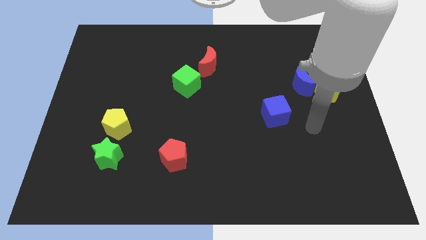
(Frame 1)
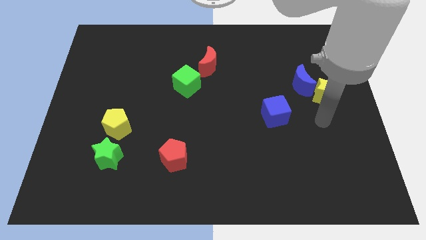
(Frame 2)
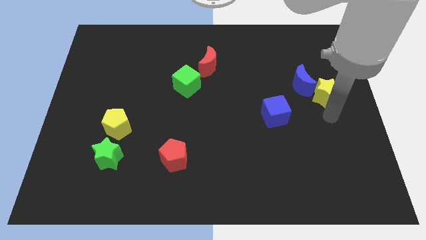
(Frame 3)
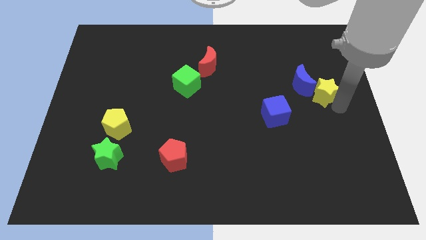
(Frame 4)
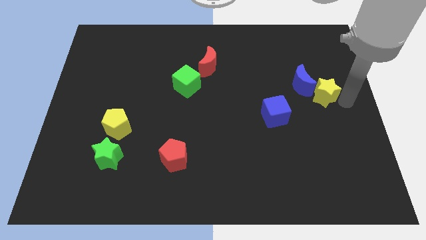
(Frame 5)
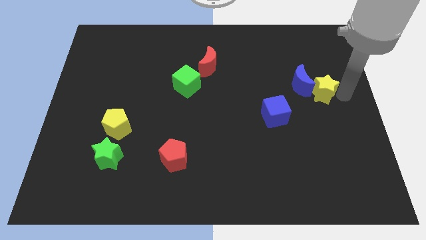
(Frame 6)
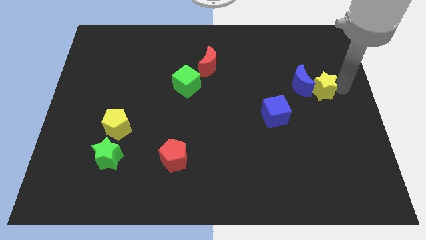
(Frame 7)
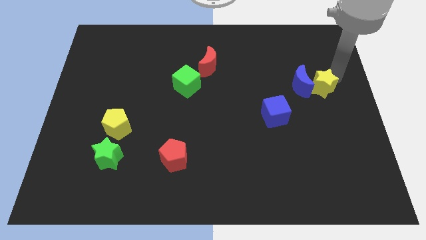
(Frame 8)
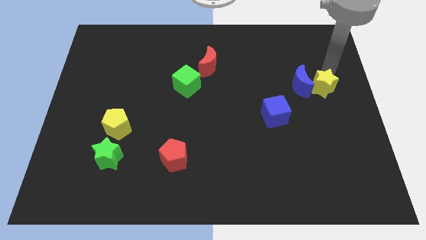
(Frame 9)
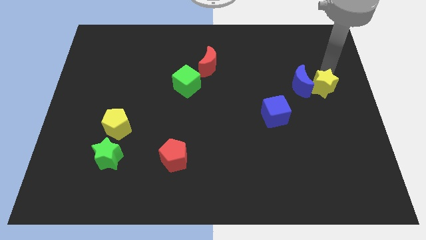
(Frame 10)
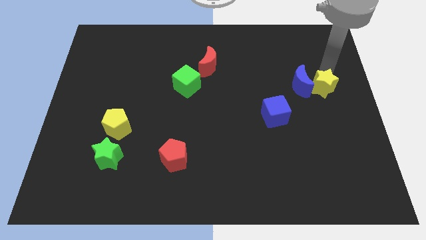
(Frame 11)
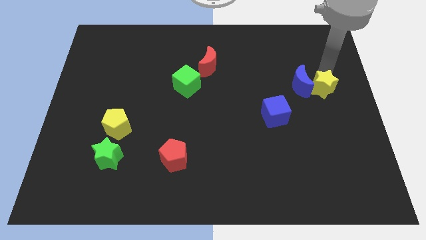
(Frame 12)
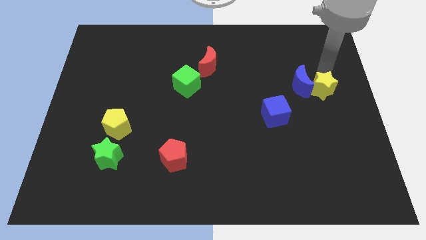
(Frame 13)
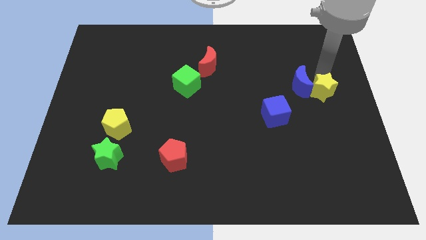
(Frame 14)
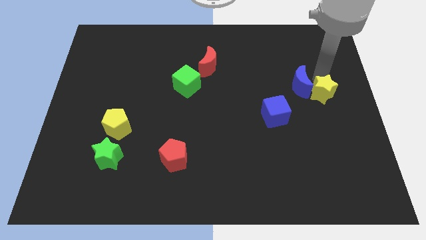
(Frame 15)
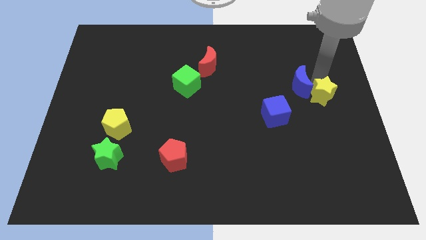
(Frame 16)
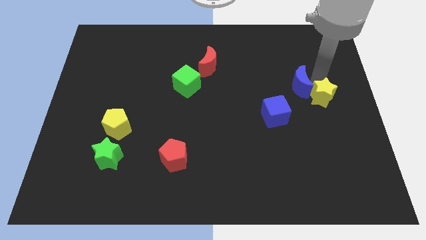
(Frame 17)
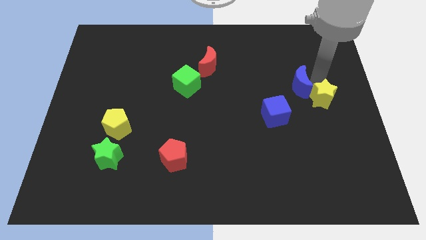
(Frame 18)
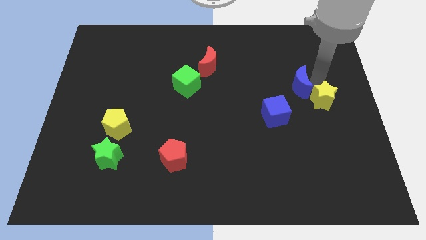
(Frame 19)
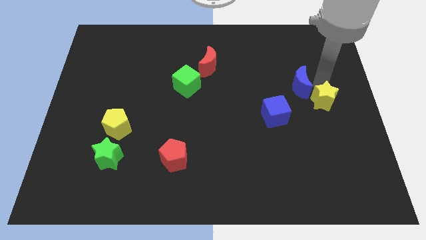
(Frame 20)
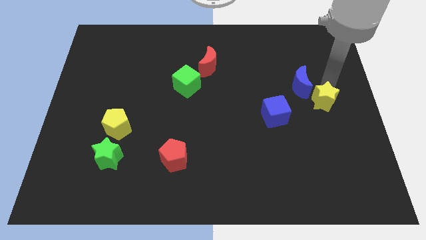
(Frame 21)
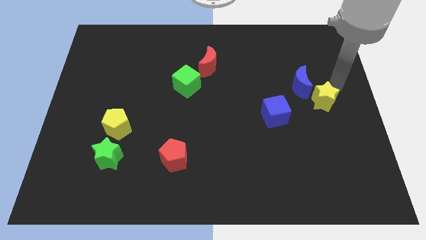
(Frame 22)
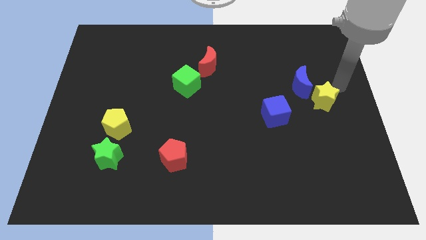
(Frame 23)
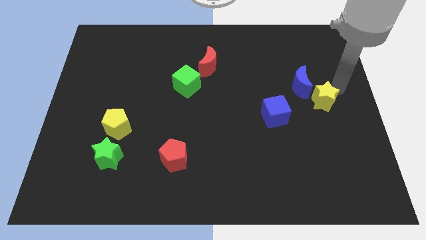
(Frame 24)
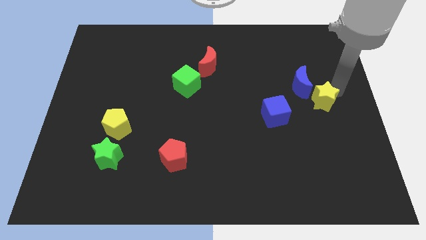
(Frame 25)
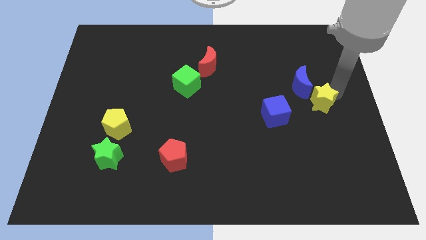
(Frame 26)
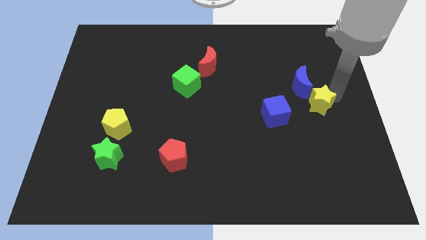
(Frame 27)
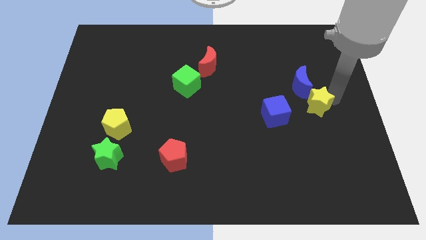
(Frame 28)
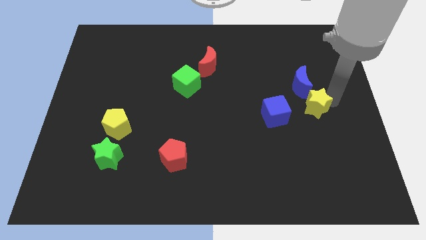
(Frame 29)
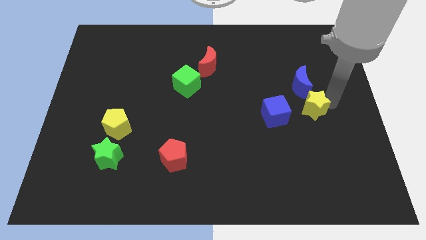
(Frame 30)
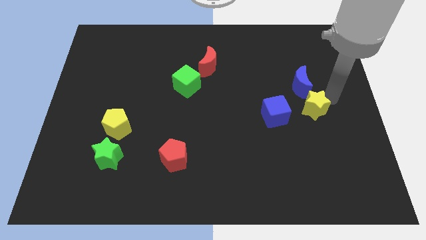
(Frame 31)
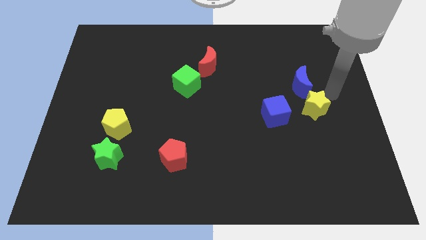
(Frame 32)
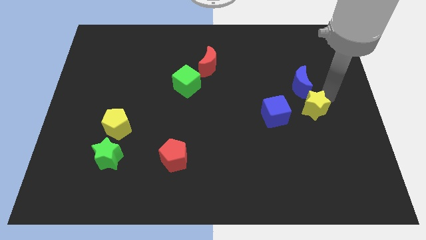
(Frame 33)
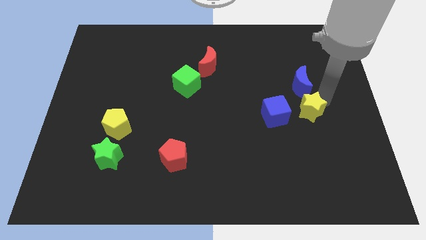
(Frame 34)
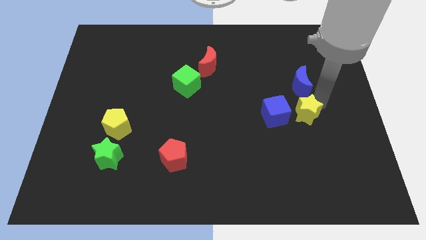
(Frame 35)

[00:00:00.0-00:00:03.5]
push the yellow star slightly downwards and to the left

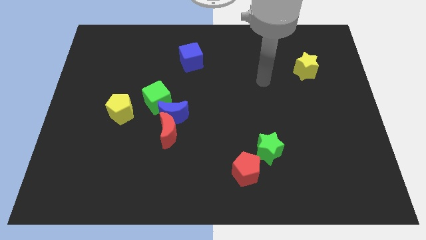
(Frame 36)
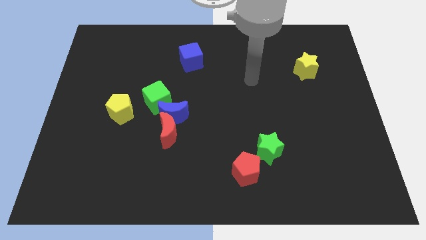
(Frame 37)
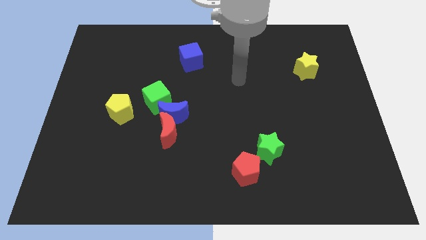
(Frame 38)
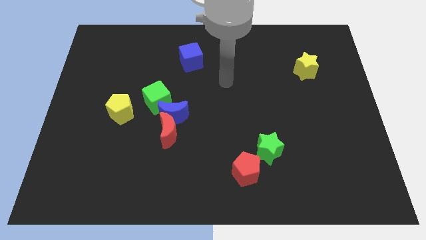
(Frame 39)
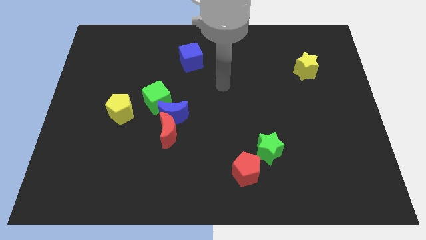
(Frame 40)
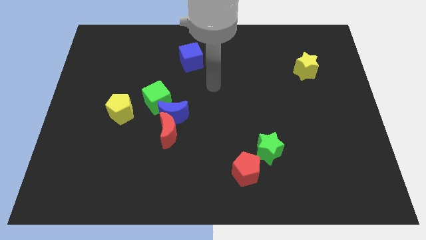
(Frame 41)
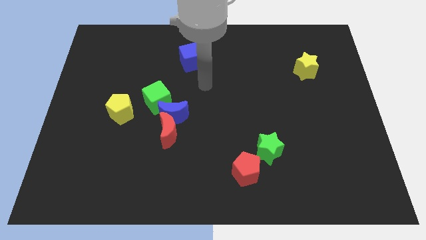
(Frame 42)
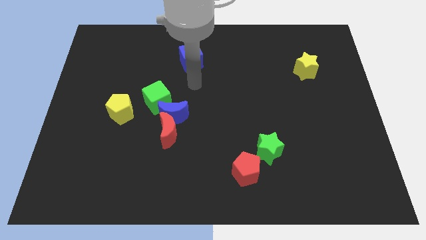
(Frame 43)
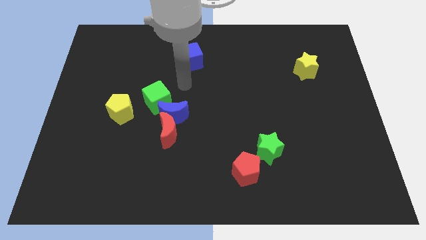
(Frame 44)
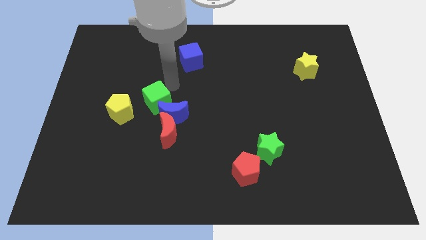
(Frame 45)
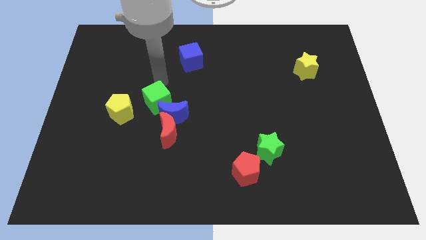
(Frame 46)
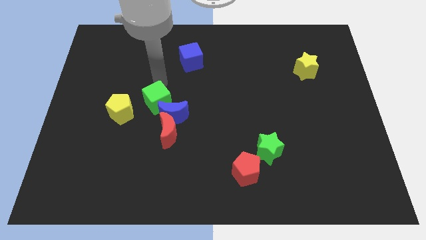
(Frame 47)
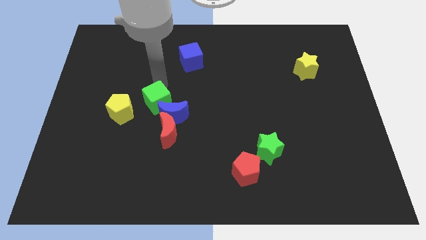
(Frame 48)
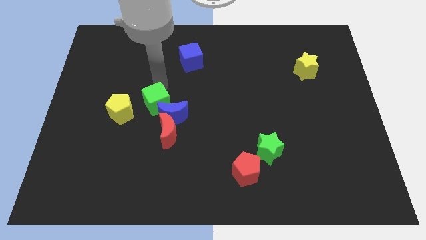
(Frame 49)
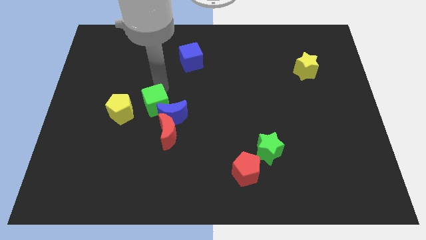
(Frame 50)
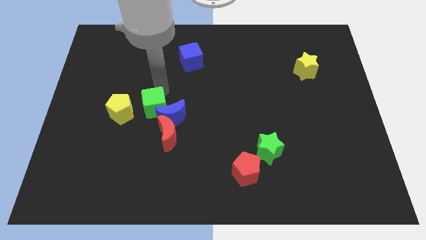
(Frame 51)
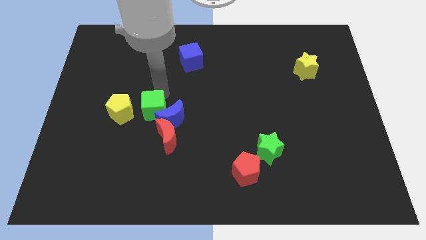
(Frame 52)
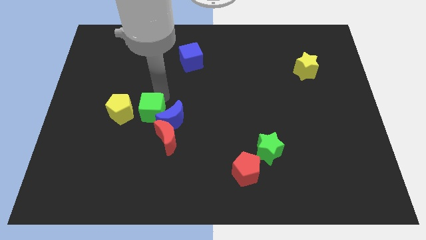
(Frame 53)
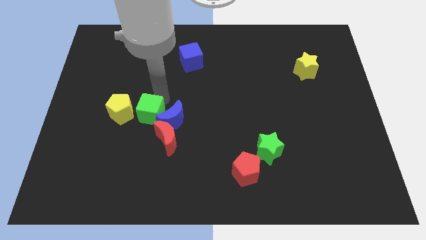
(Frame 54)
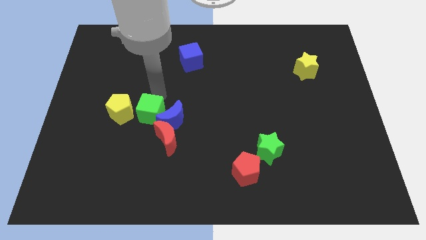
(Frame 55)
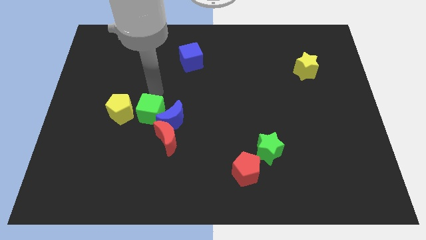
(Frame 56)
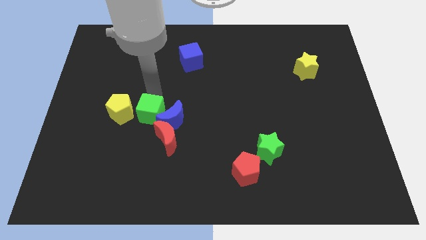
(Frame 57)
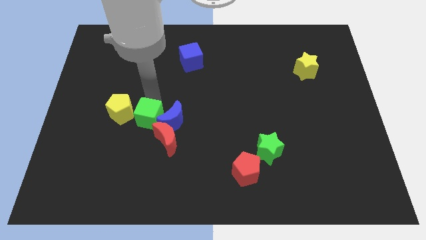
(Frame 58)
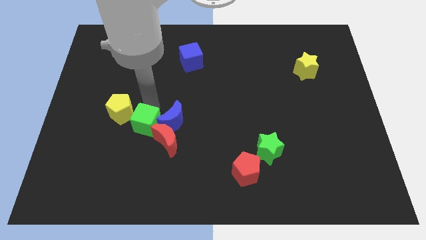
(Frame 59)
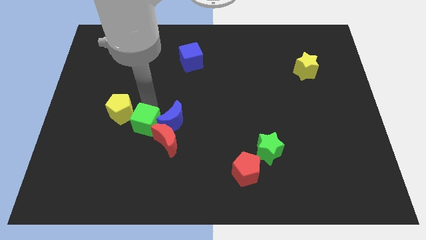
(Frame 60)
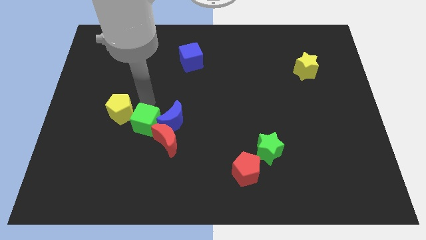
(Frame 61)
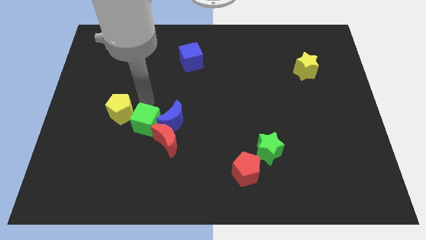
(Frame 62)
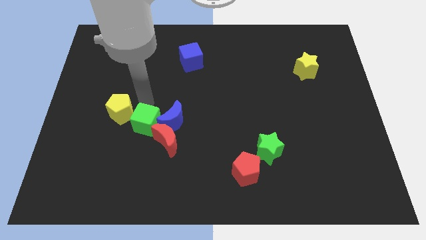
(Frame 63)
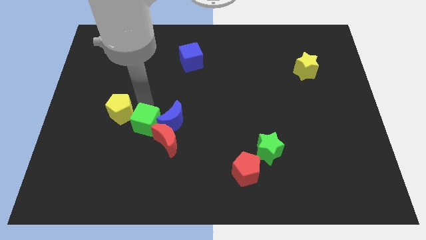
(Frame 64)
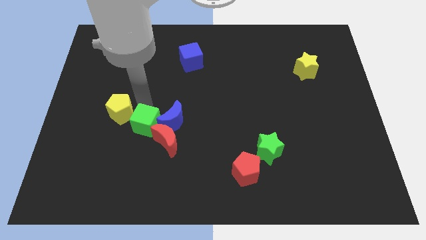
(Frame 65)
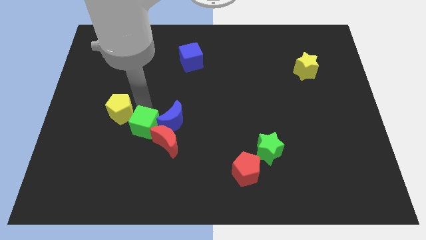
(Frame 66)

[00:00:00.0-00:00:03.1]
slide the green cube a bit down

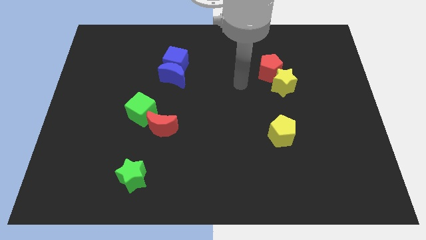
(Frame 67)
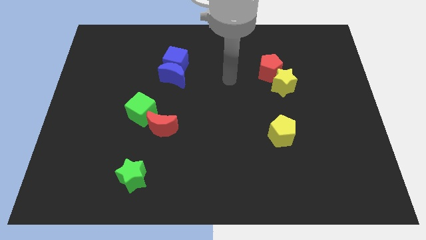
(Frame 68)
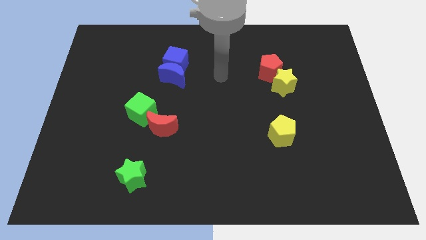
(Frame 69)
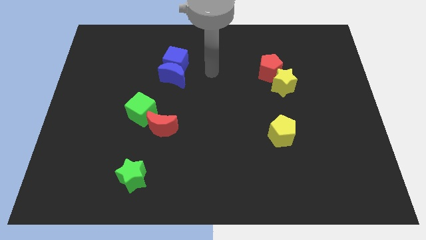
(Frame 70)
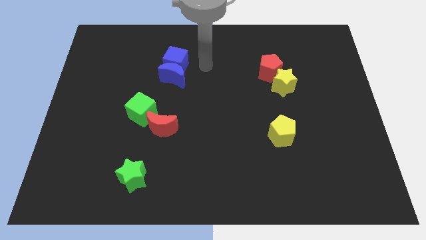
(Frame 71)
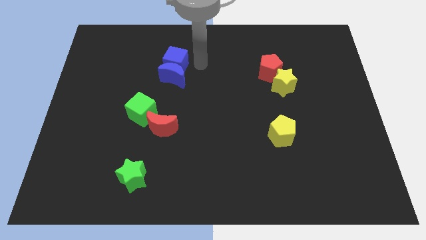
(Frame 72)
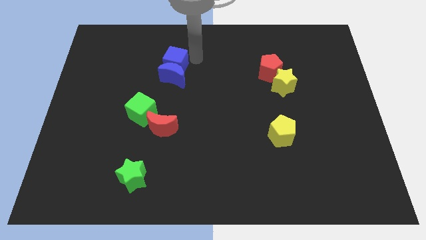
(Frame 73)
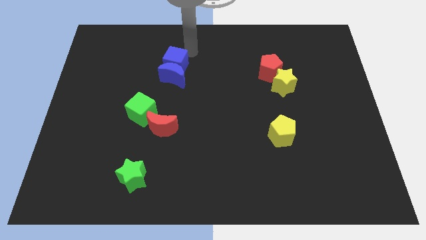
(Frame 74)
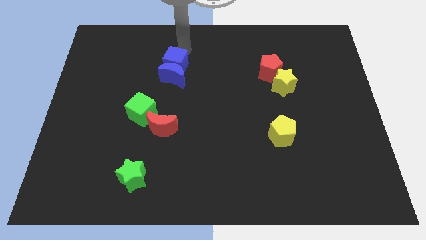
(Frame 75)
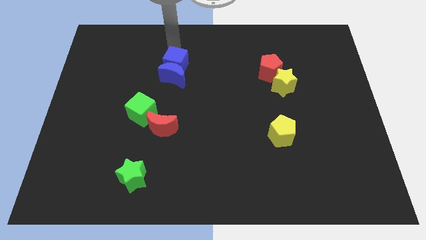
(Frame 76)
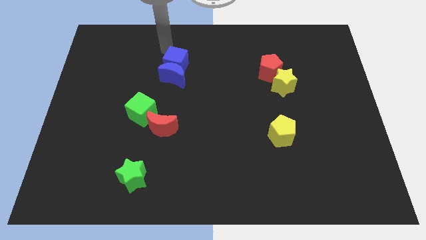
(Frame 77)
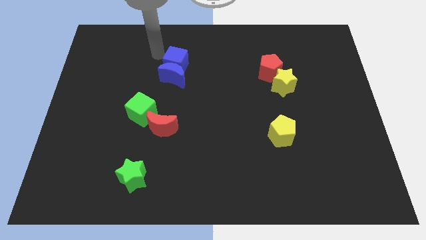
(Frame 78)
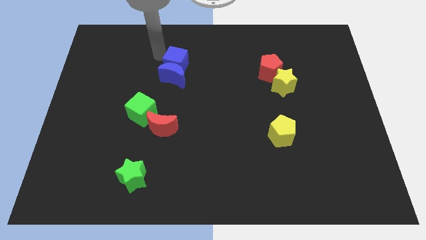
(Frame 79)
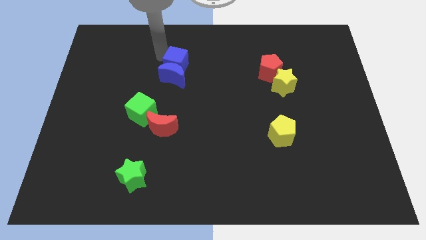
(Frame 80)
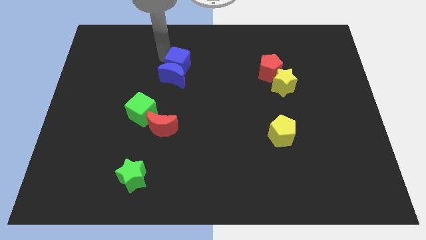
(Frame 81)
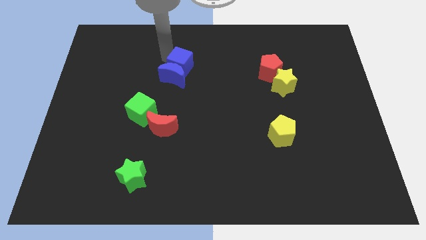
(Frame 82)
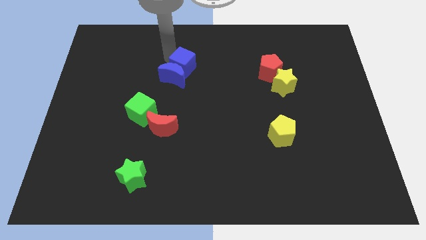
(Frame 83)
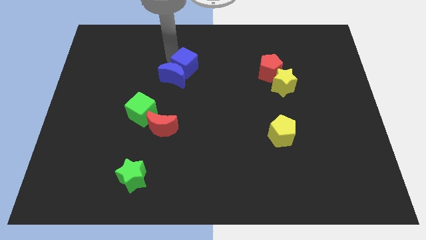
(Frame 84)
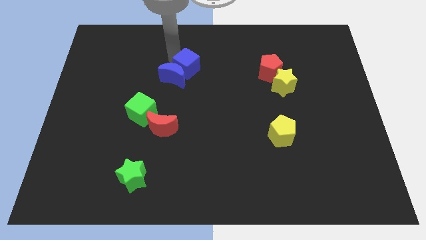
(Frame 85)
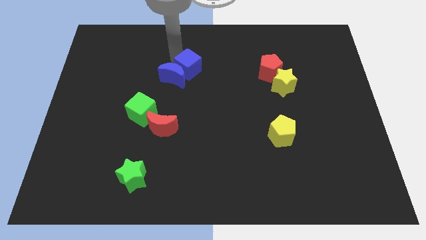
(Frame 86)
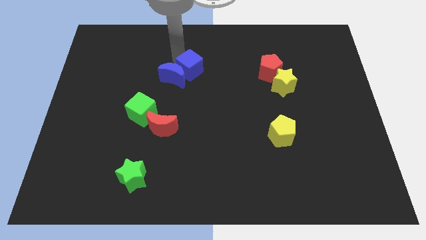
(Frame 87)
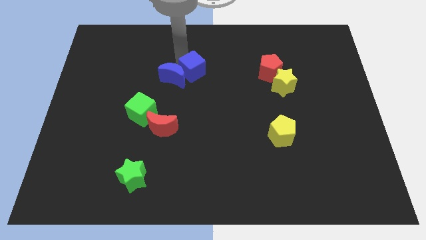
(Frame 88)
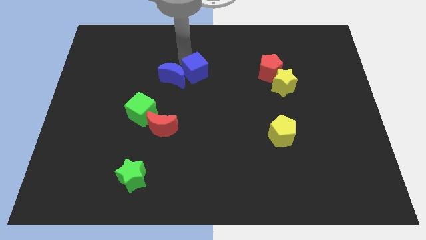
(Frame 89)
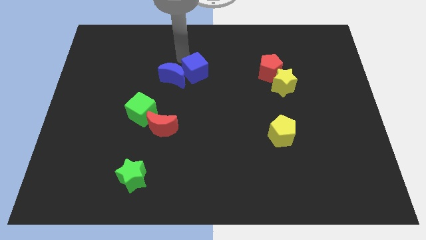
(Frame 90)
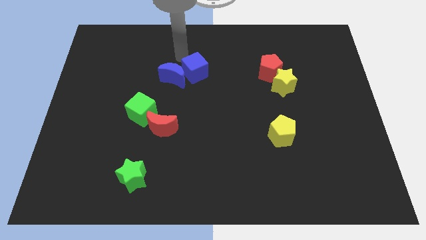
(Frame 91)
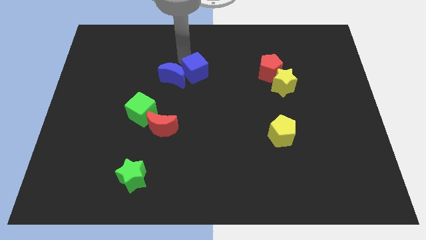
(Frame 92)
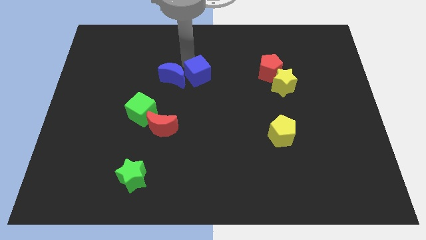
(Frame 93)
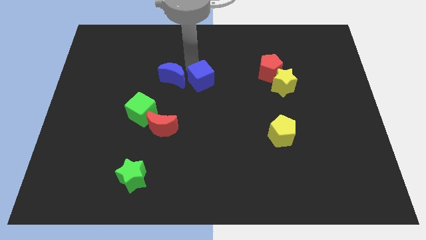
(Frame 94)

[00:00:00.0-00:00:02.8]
move the blue cube downwards and to the right diagonally a little
